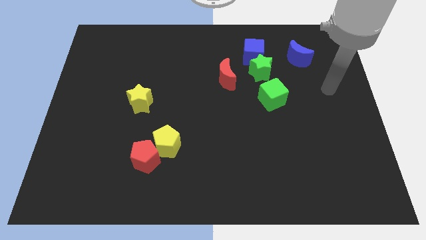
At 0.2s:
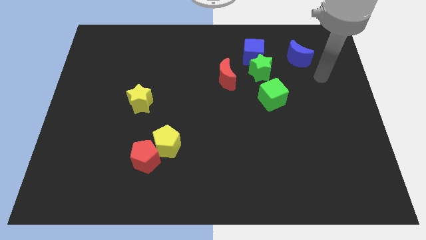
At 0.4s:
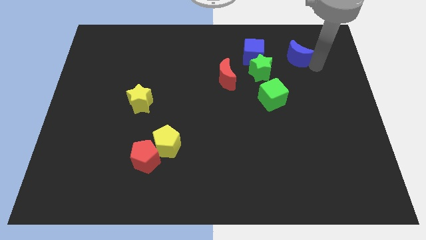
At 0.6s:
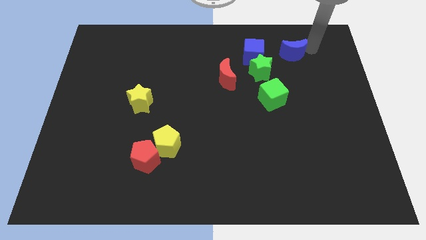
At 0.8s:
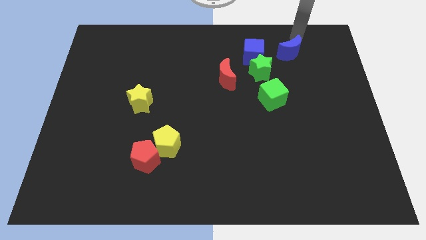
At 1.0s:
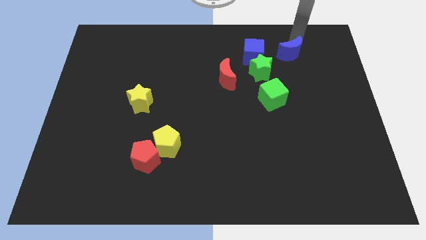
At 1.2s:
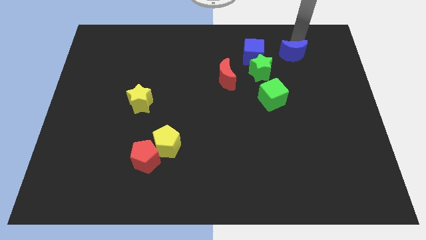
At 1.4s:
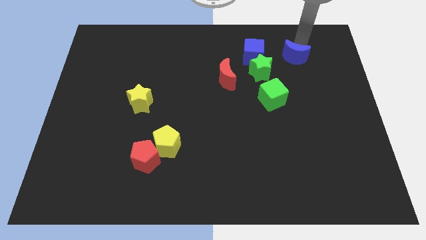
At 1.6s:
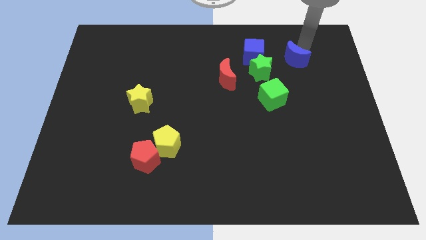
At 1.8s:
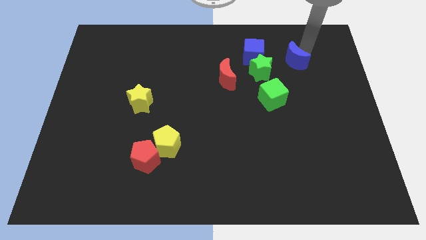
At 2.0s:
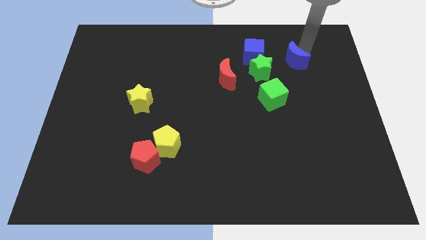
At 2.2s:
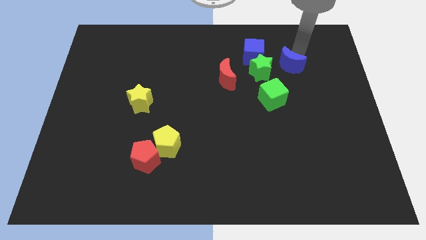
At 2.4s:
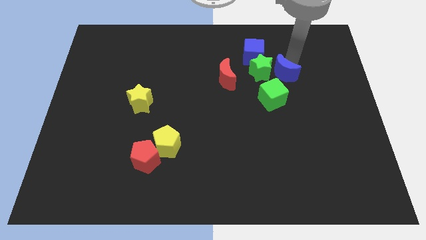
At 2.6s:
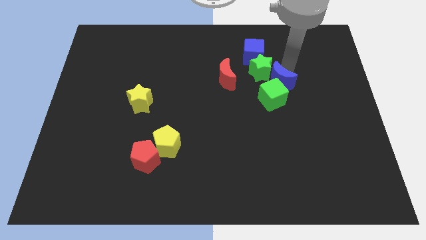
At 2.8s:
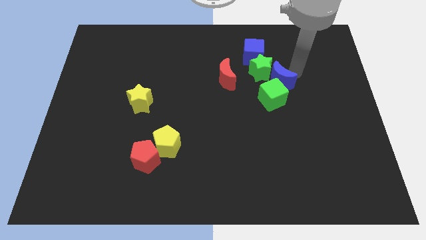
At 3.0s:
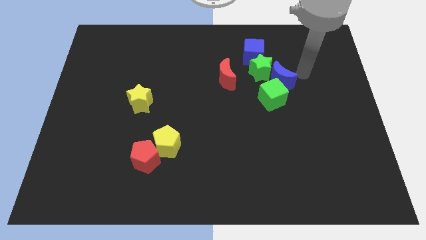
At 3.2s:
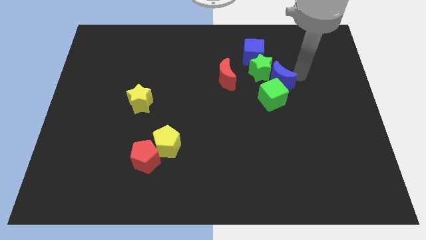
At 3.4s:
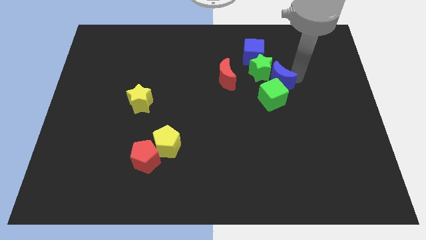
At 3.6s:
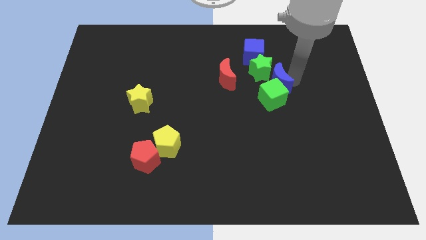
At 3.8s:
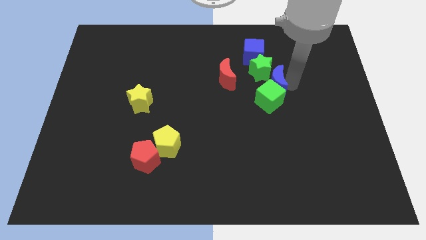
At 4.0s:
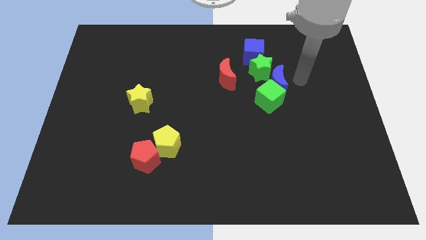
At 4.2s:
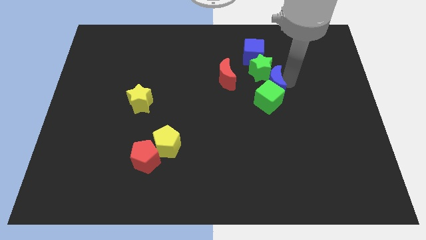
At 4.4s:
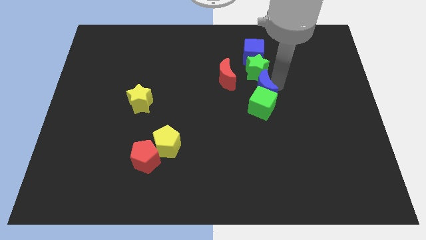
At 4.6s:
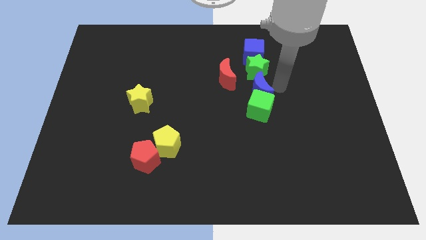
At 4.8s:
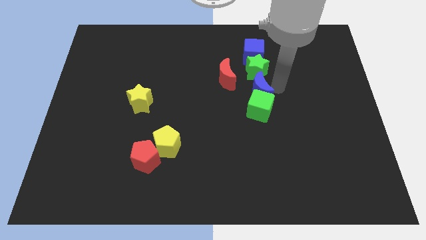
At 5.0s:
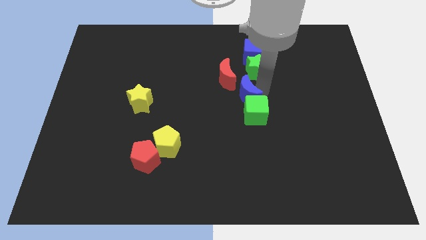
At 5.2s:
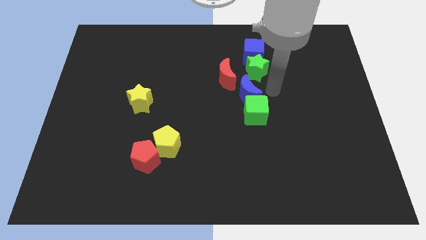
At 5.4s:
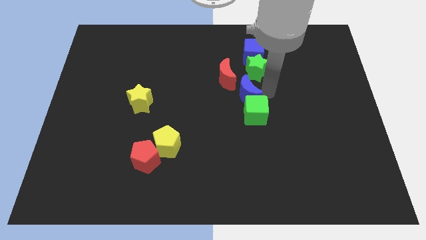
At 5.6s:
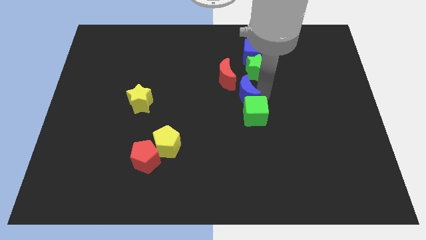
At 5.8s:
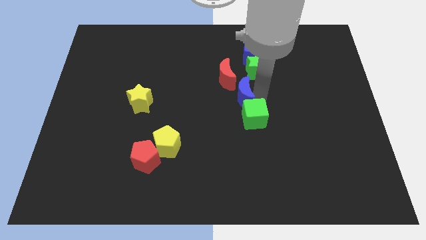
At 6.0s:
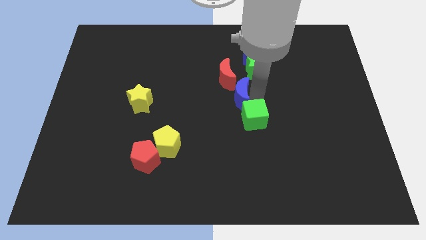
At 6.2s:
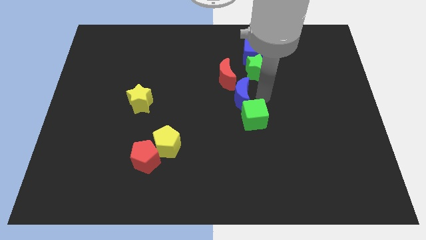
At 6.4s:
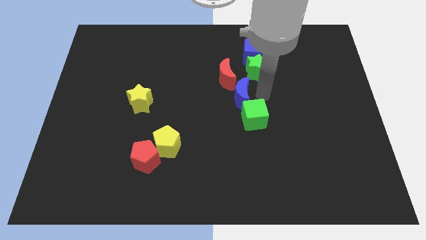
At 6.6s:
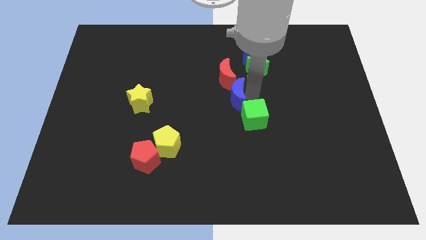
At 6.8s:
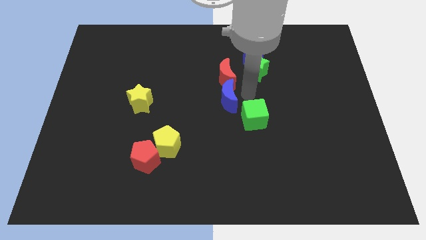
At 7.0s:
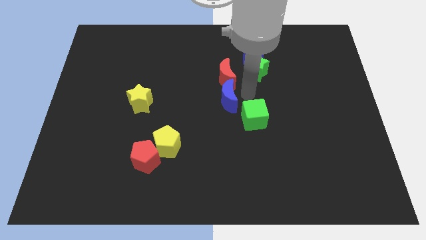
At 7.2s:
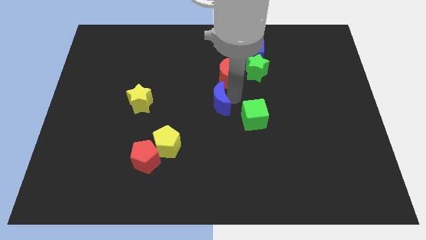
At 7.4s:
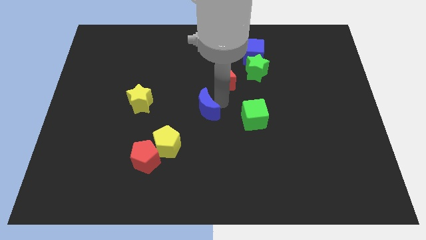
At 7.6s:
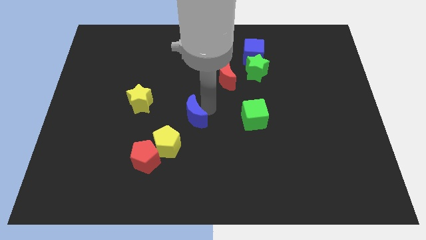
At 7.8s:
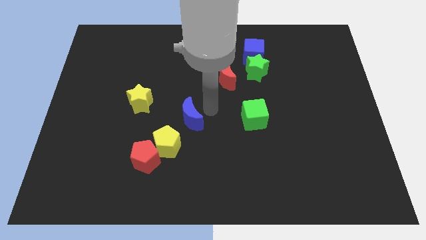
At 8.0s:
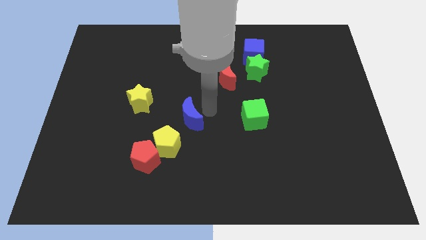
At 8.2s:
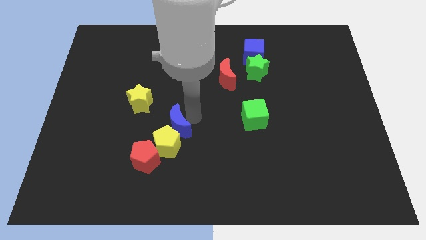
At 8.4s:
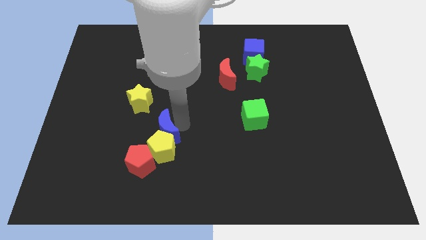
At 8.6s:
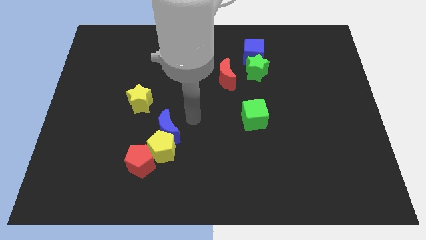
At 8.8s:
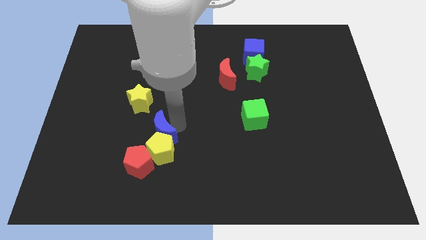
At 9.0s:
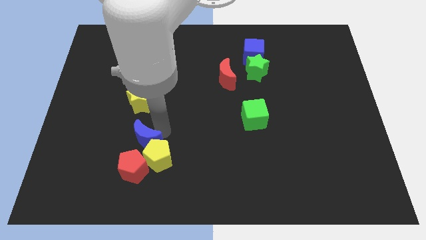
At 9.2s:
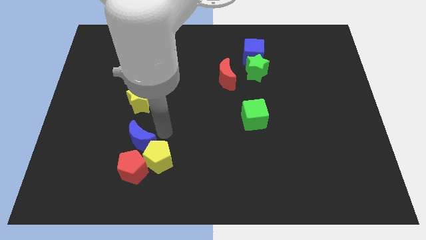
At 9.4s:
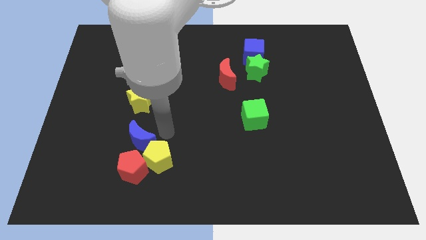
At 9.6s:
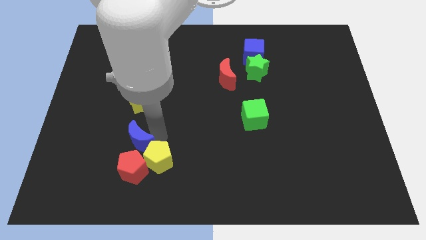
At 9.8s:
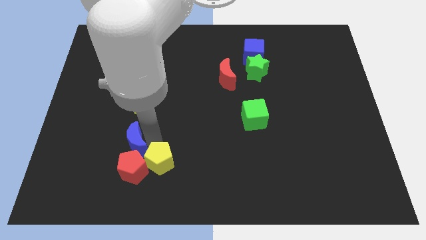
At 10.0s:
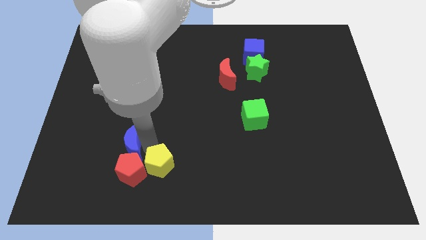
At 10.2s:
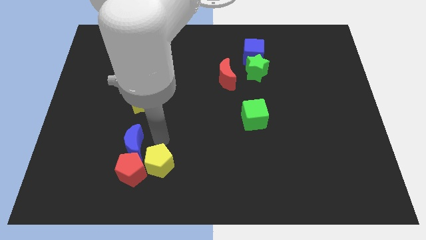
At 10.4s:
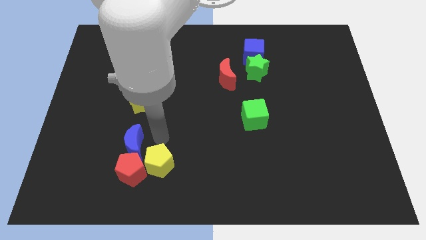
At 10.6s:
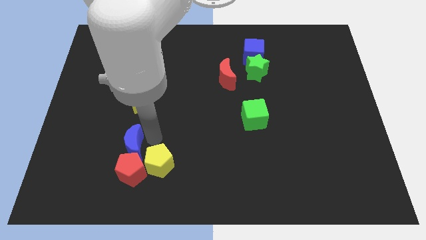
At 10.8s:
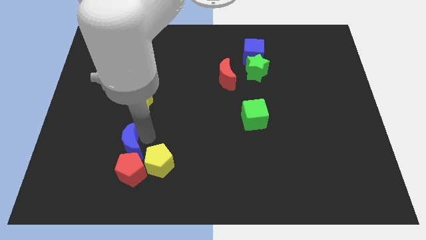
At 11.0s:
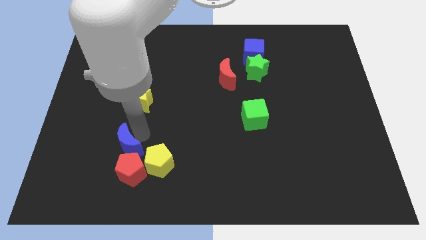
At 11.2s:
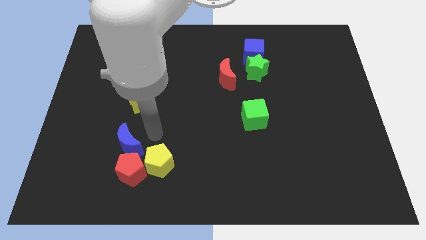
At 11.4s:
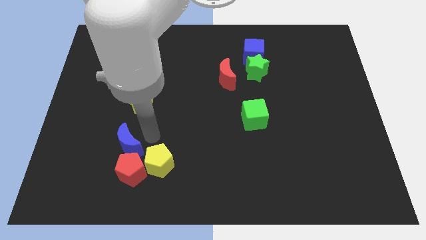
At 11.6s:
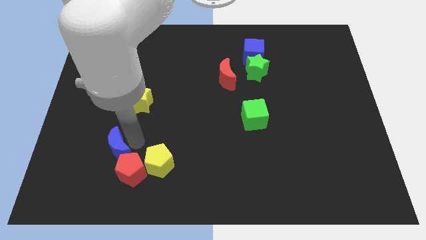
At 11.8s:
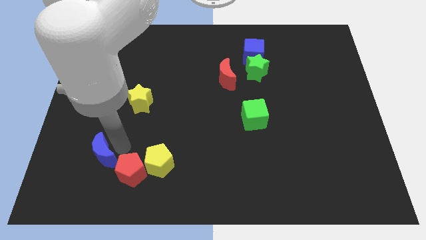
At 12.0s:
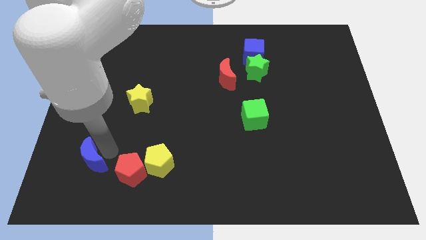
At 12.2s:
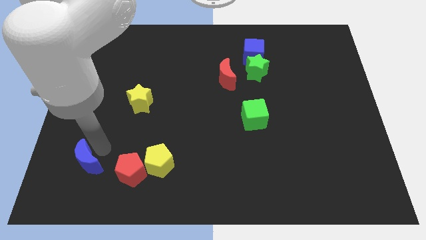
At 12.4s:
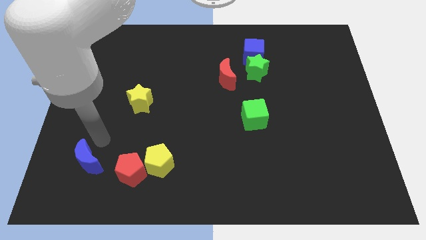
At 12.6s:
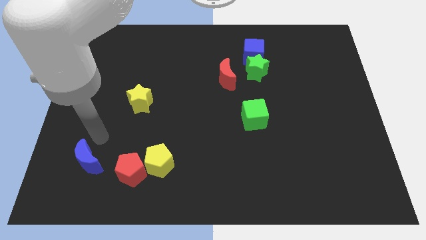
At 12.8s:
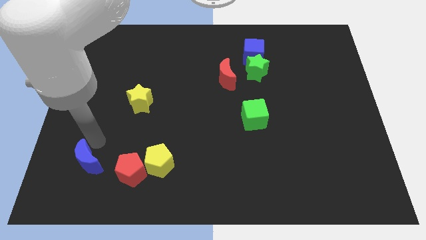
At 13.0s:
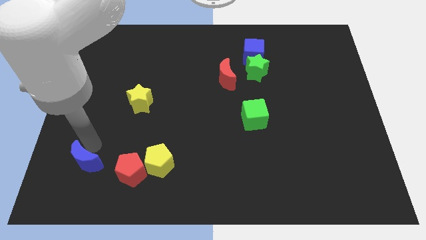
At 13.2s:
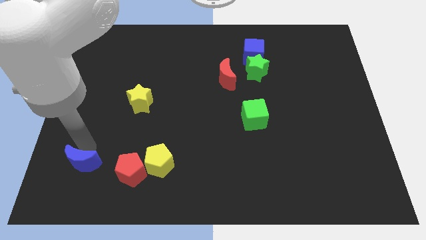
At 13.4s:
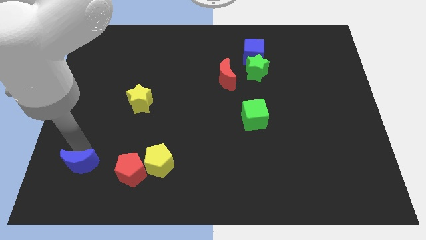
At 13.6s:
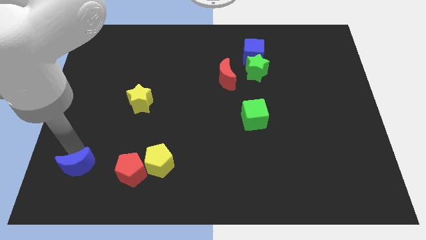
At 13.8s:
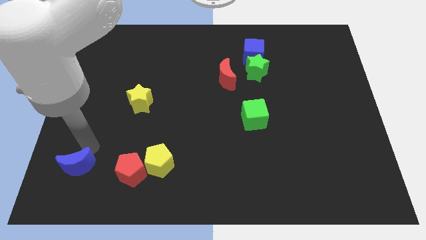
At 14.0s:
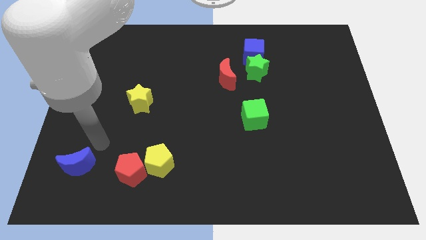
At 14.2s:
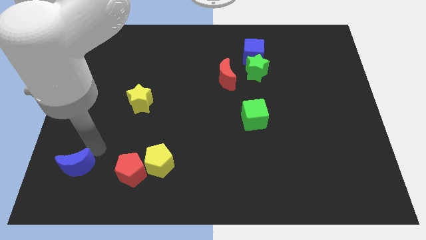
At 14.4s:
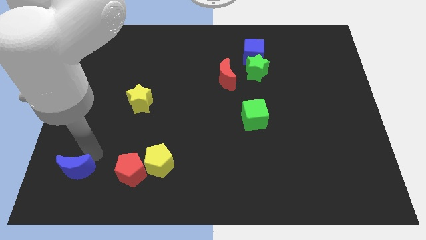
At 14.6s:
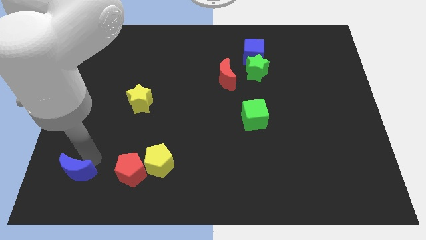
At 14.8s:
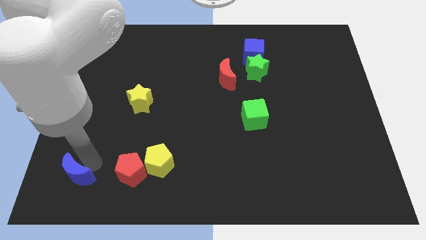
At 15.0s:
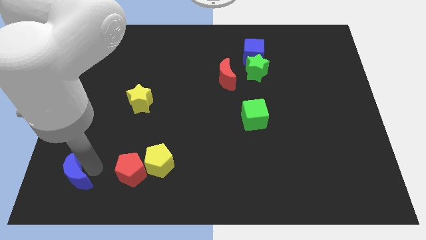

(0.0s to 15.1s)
put the blue moon to the bottom left of the board
